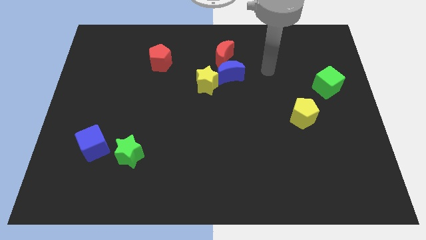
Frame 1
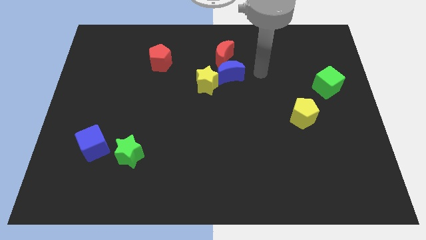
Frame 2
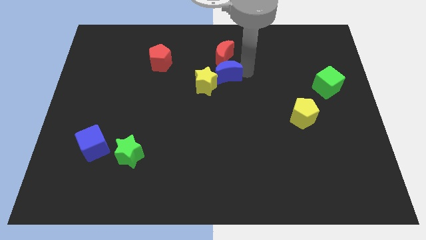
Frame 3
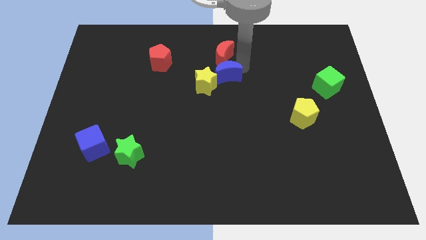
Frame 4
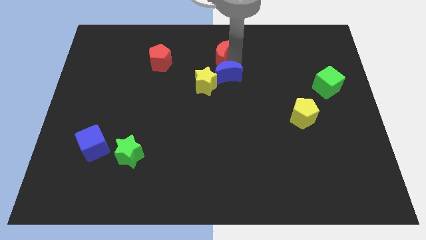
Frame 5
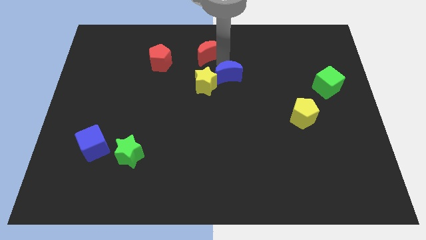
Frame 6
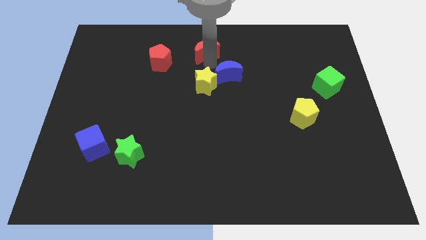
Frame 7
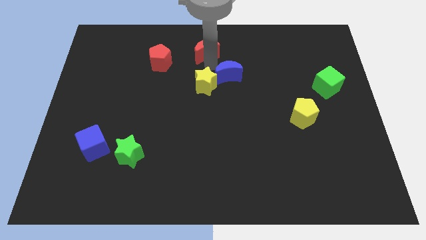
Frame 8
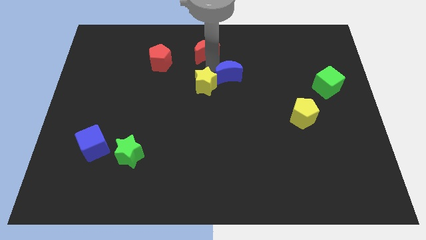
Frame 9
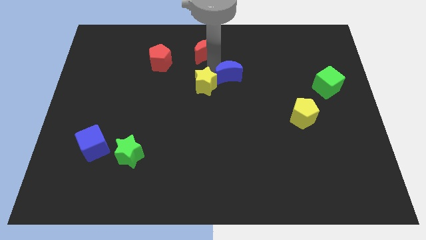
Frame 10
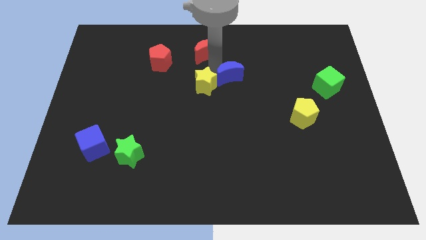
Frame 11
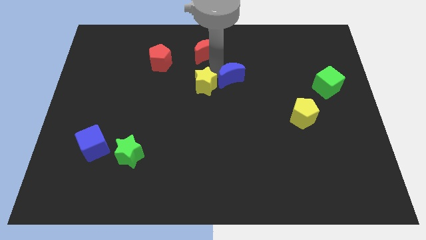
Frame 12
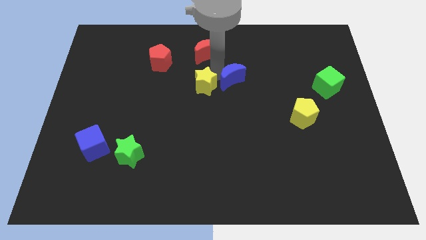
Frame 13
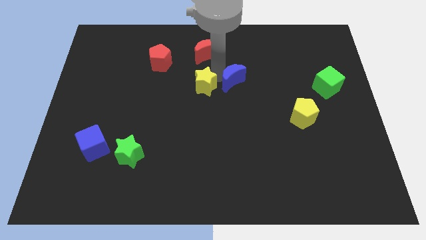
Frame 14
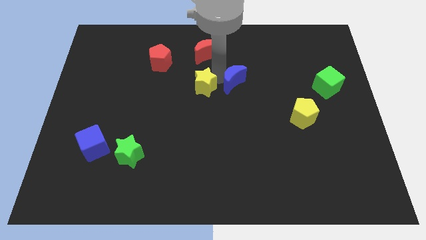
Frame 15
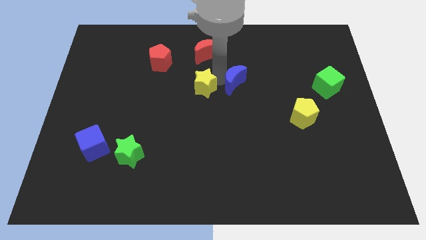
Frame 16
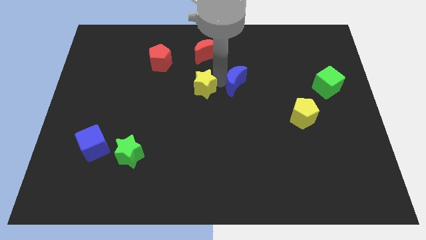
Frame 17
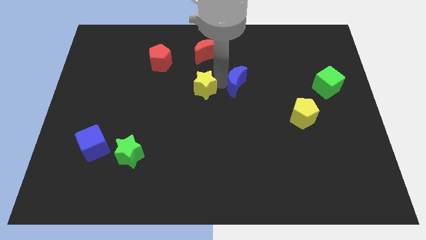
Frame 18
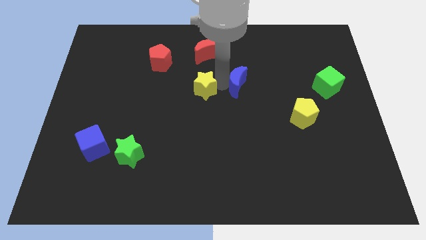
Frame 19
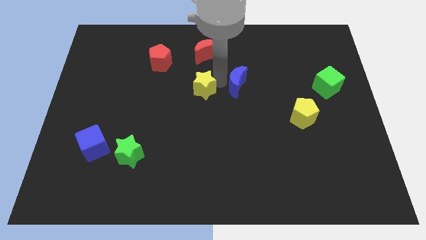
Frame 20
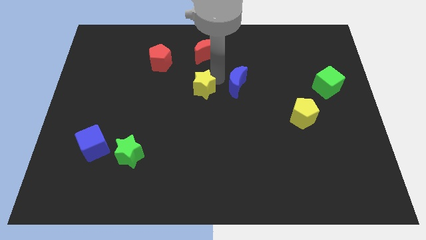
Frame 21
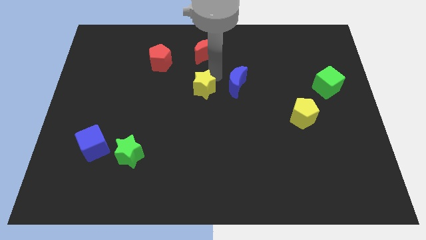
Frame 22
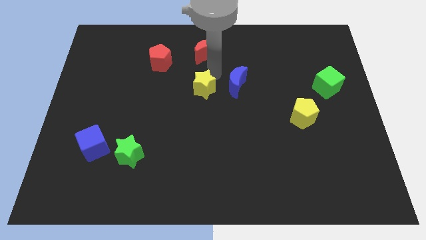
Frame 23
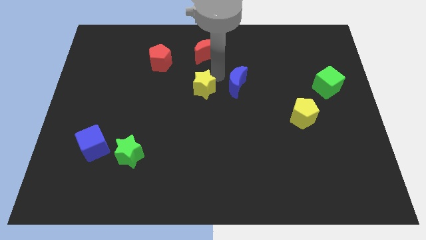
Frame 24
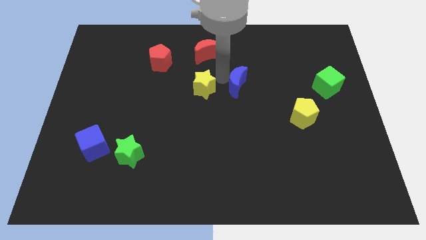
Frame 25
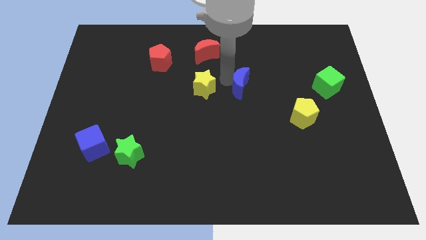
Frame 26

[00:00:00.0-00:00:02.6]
pull the blue moon apart from the yellow star and red moon

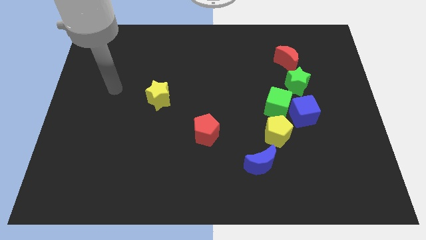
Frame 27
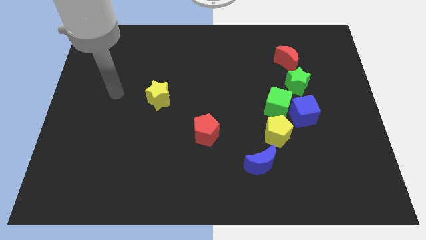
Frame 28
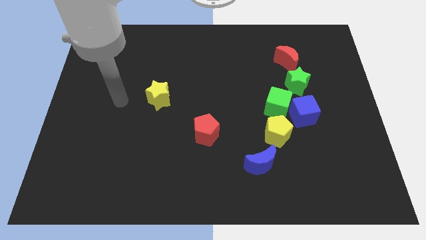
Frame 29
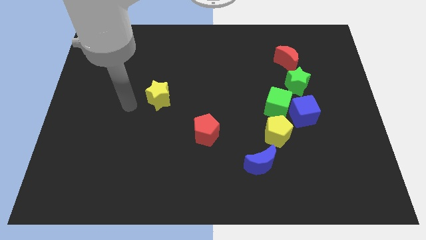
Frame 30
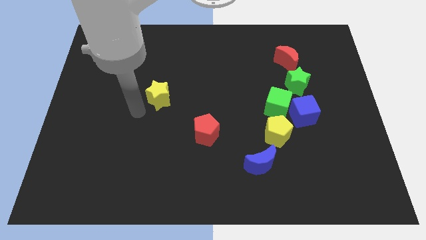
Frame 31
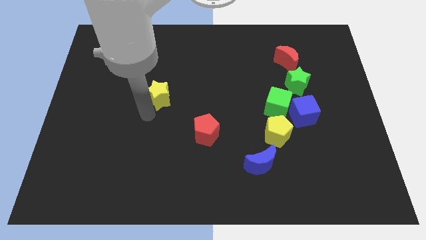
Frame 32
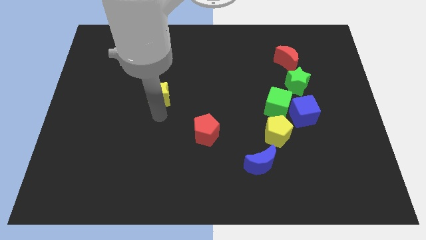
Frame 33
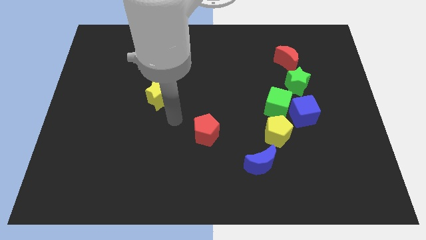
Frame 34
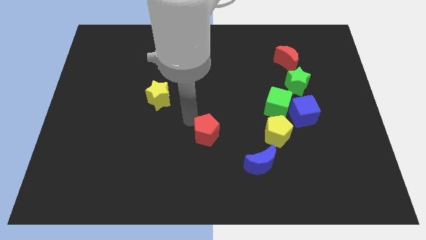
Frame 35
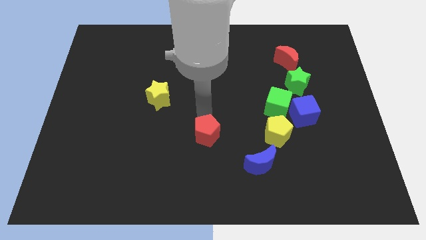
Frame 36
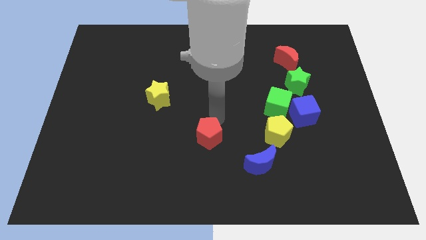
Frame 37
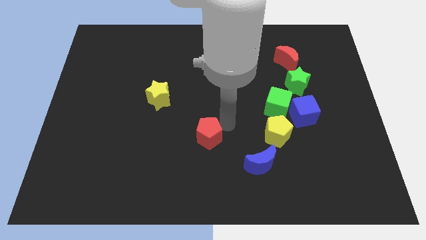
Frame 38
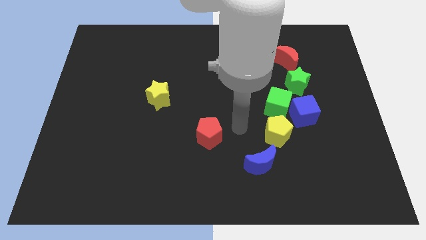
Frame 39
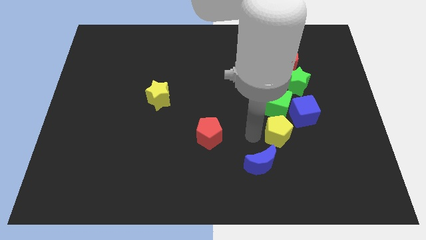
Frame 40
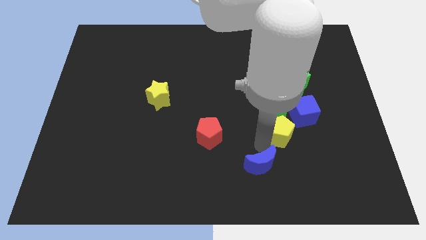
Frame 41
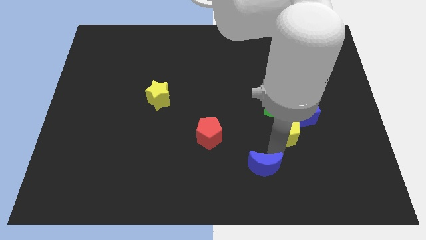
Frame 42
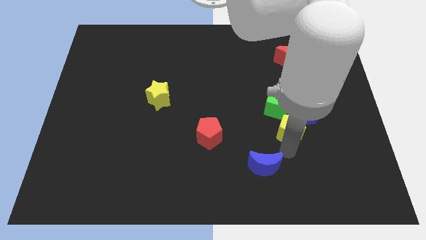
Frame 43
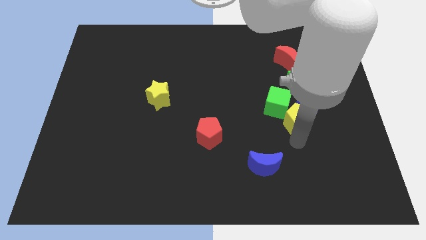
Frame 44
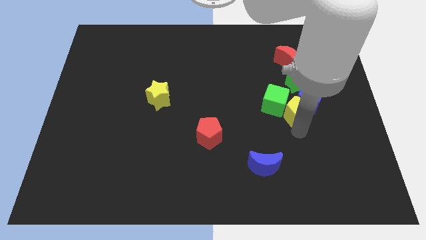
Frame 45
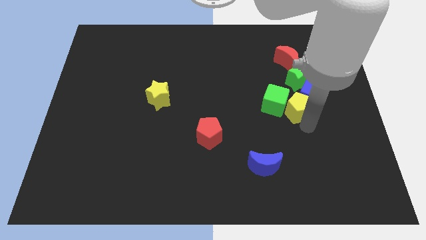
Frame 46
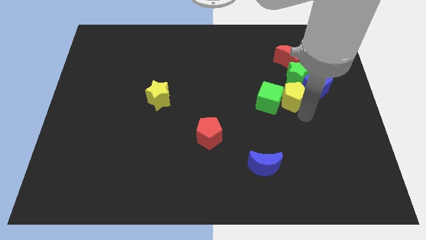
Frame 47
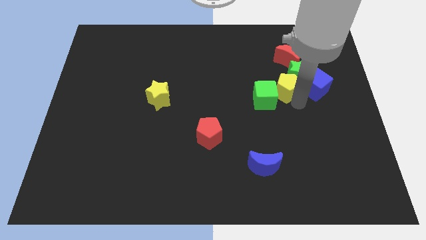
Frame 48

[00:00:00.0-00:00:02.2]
pull the green cube apart from the group

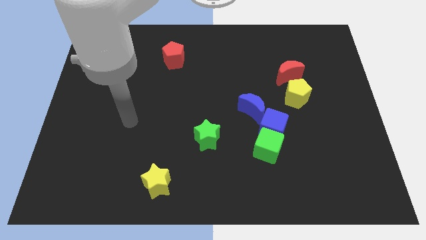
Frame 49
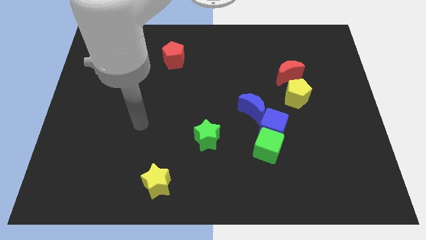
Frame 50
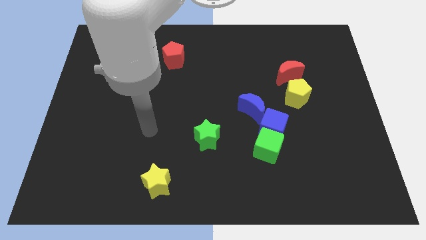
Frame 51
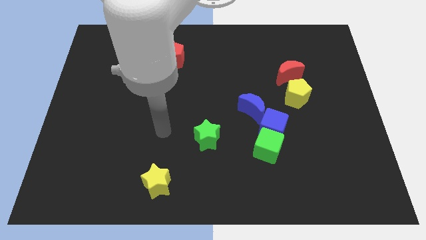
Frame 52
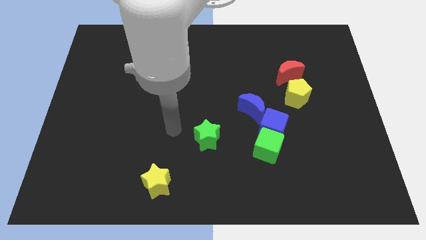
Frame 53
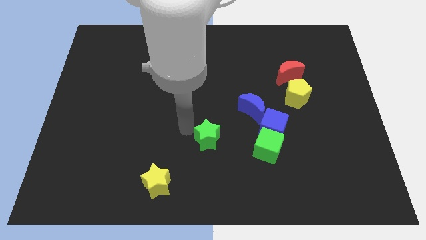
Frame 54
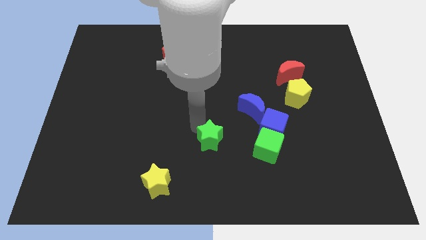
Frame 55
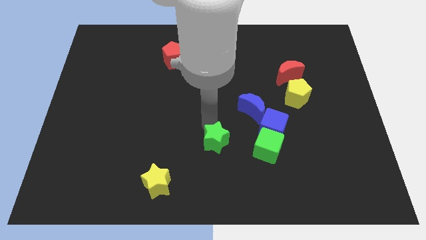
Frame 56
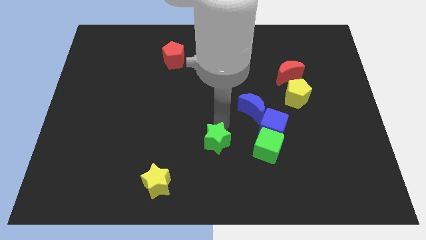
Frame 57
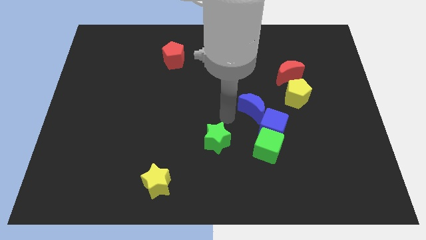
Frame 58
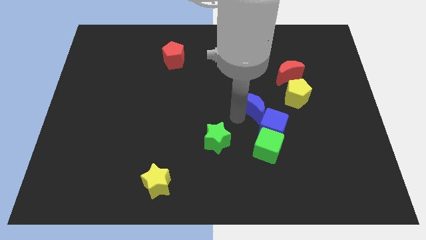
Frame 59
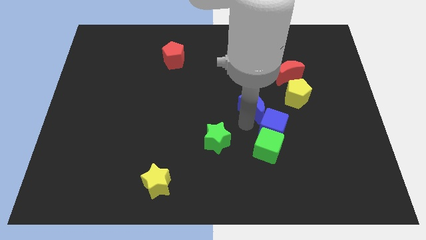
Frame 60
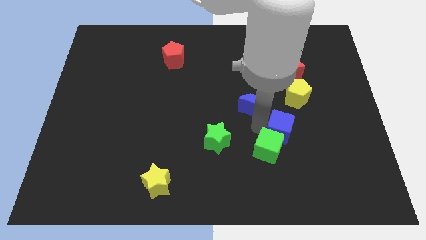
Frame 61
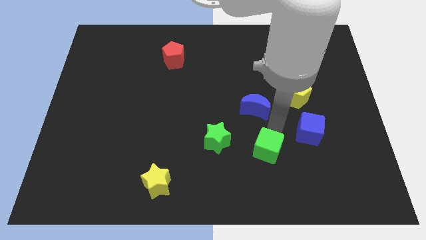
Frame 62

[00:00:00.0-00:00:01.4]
move the green cube away from the blue cube

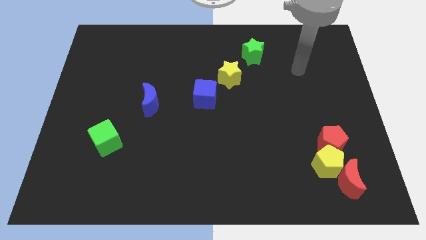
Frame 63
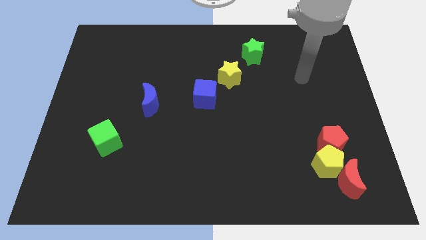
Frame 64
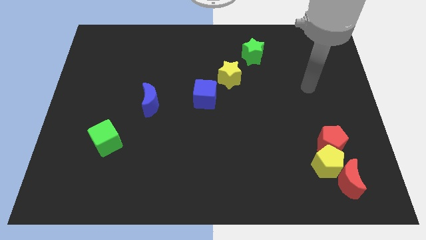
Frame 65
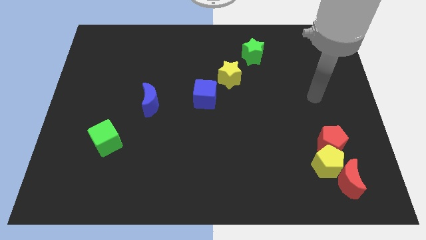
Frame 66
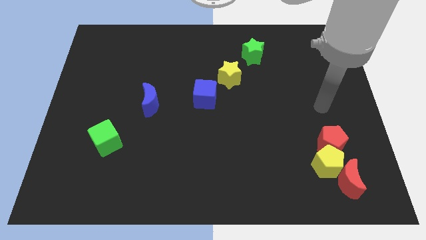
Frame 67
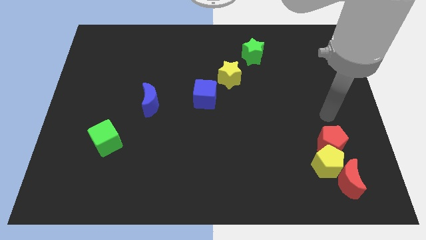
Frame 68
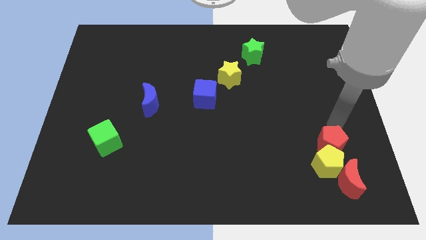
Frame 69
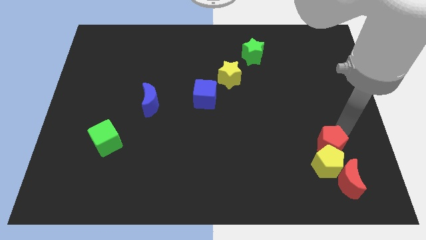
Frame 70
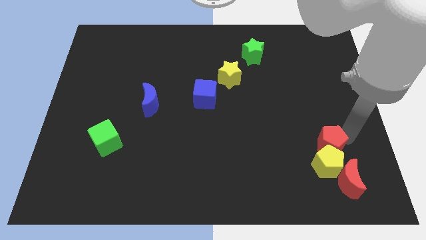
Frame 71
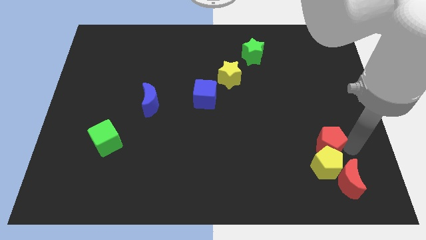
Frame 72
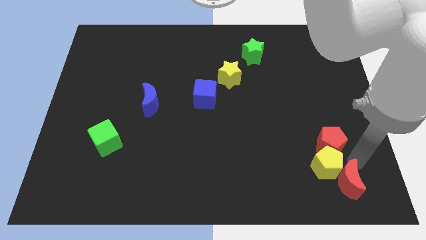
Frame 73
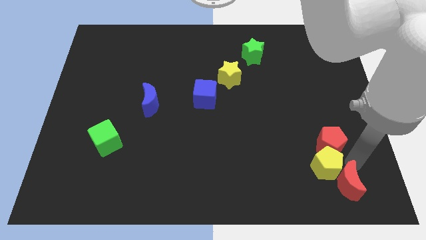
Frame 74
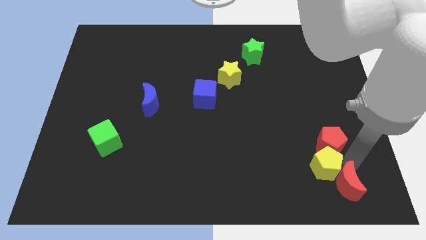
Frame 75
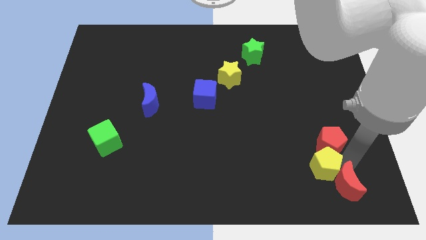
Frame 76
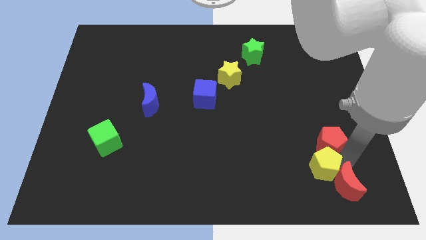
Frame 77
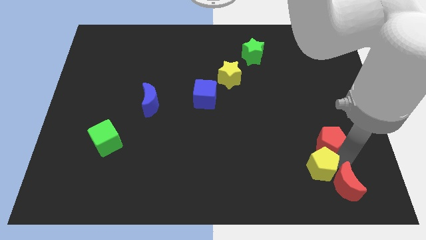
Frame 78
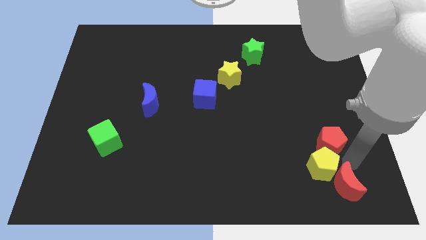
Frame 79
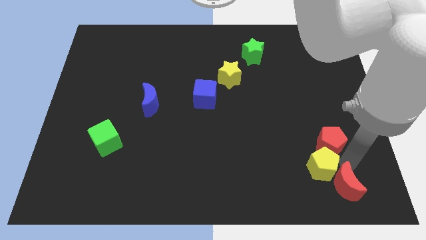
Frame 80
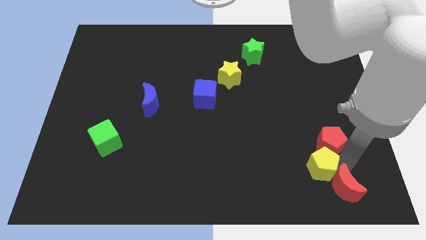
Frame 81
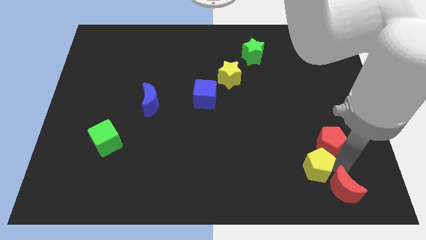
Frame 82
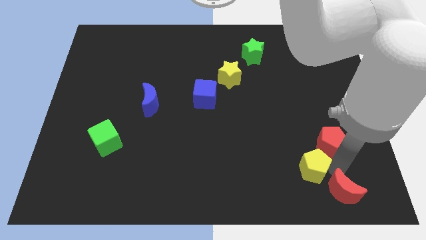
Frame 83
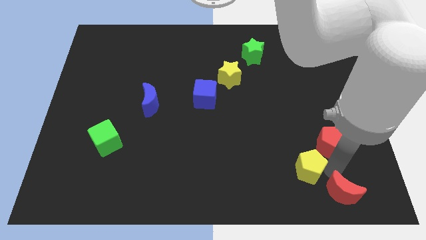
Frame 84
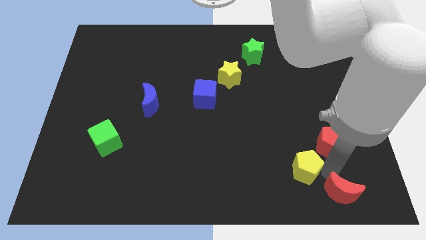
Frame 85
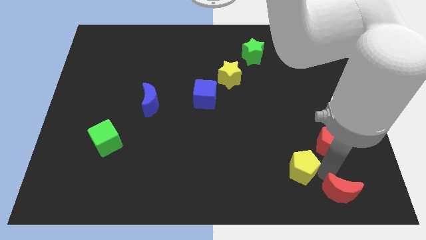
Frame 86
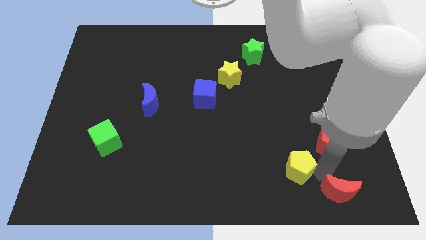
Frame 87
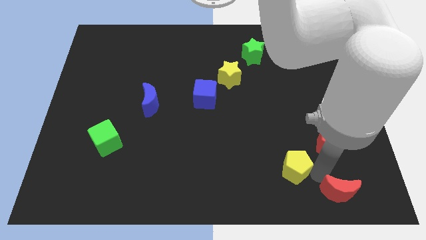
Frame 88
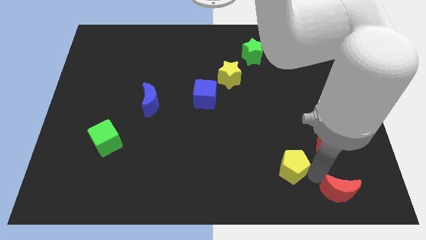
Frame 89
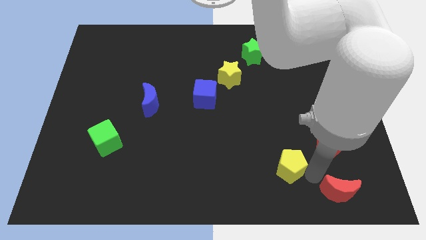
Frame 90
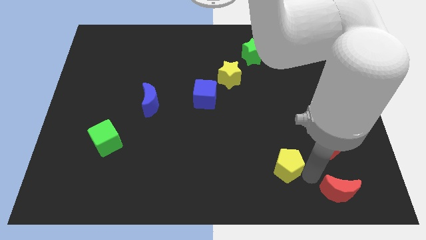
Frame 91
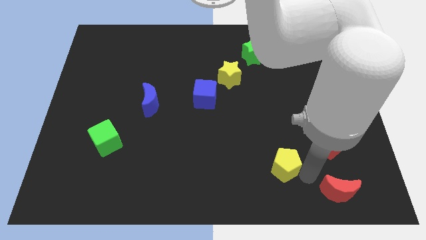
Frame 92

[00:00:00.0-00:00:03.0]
pull the yellow pentagon apart from the red moon and red pentagon

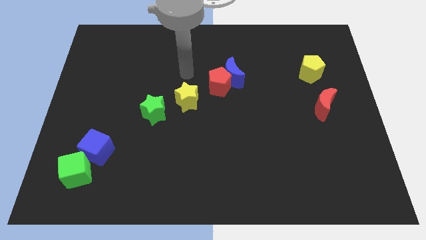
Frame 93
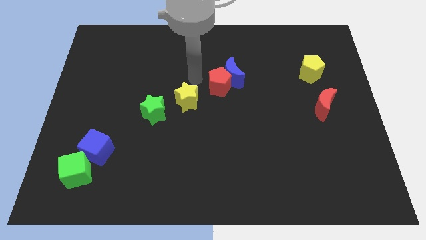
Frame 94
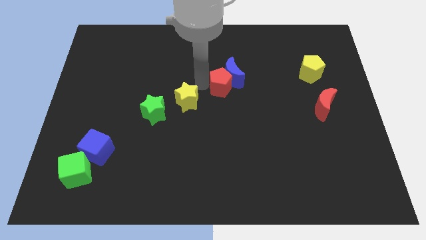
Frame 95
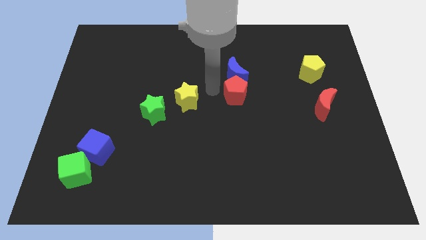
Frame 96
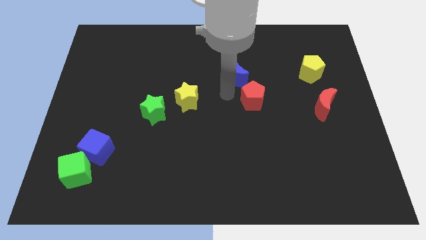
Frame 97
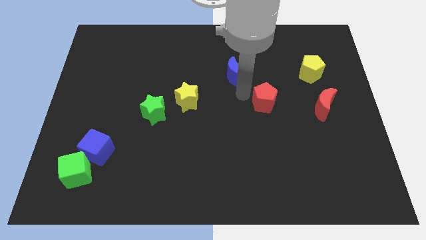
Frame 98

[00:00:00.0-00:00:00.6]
move the blue moon away from the red pentagon
